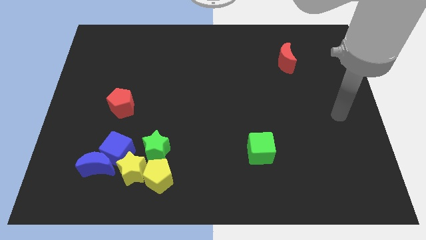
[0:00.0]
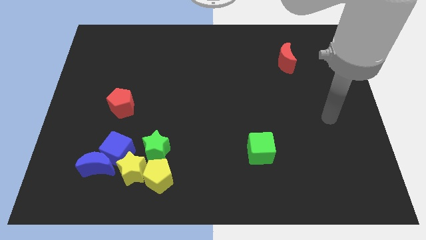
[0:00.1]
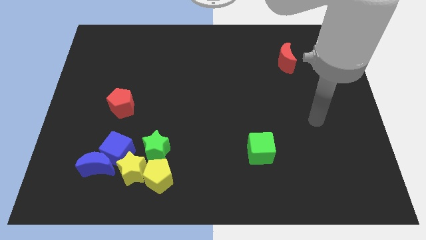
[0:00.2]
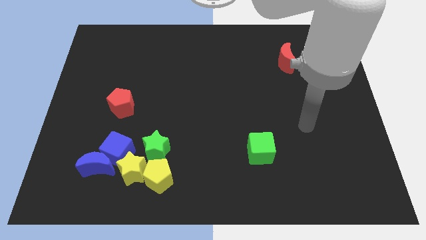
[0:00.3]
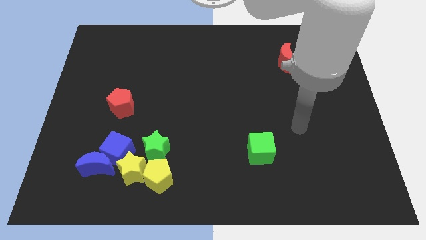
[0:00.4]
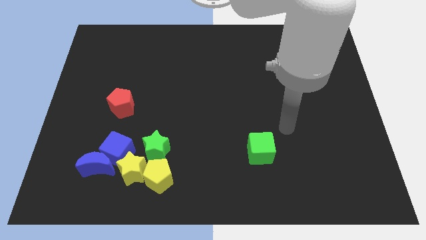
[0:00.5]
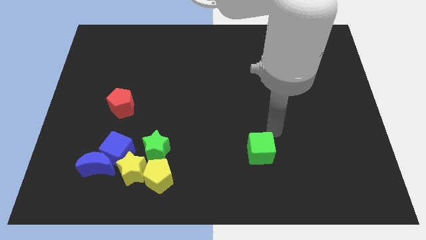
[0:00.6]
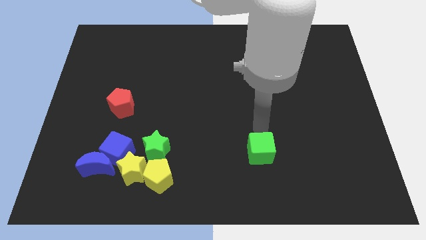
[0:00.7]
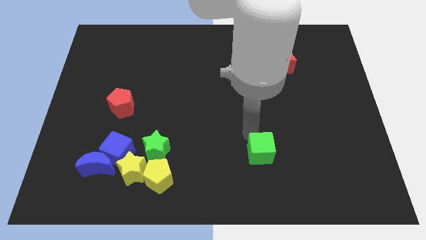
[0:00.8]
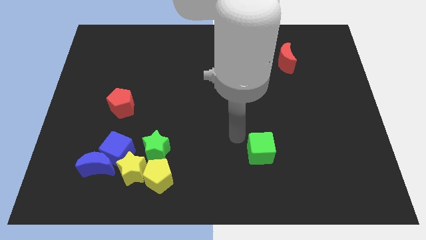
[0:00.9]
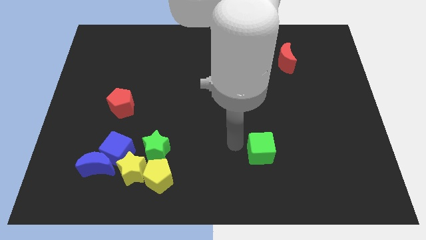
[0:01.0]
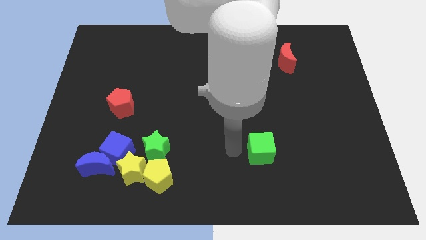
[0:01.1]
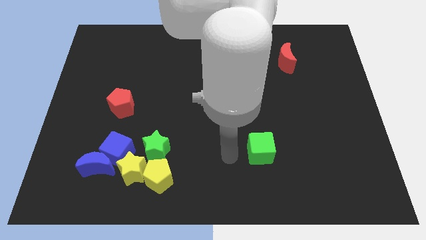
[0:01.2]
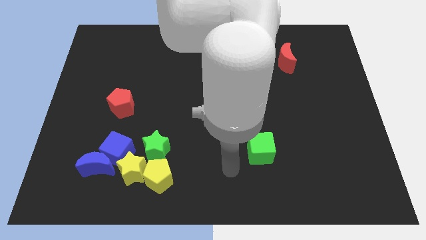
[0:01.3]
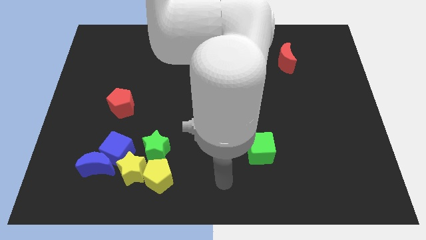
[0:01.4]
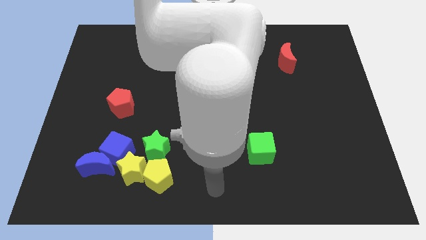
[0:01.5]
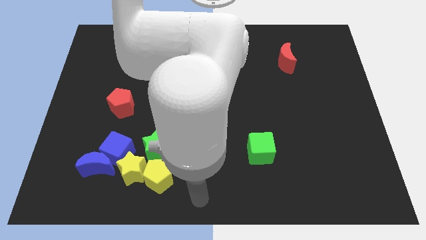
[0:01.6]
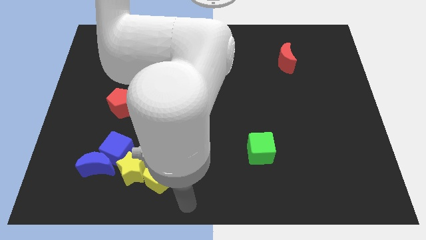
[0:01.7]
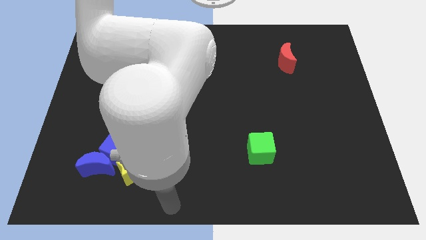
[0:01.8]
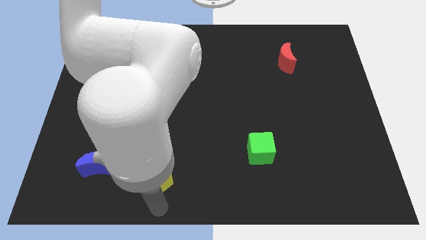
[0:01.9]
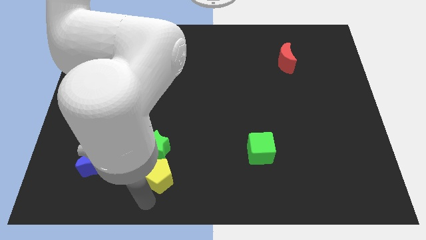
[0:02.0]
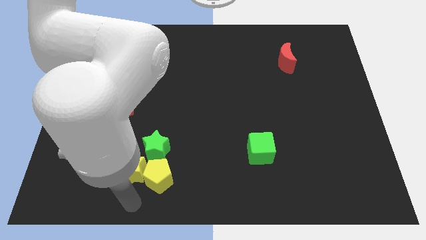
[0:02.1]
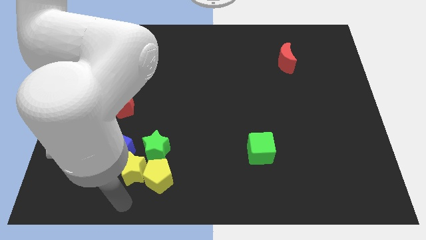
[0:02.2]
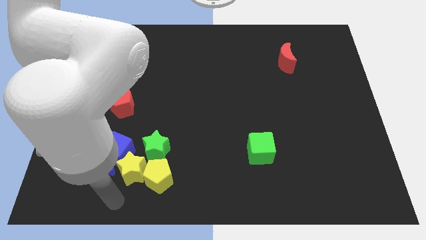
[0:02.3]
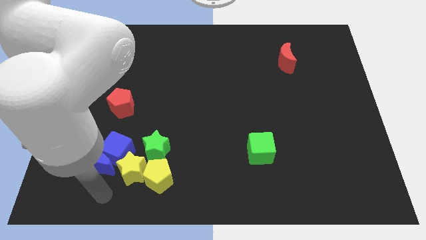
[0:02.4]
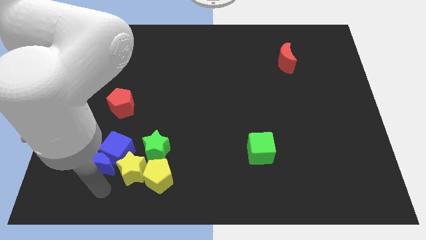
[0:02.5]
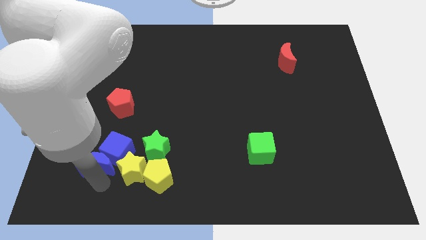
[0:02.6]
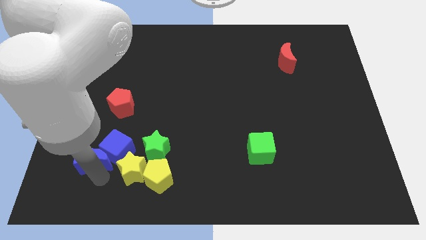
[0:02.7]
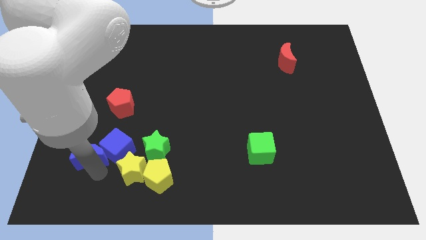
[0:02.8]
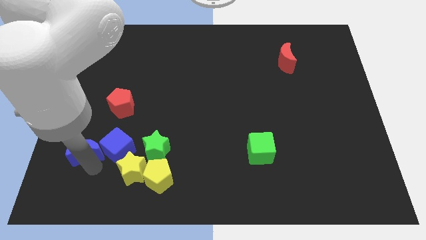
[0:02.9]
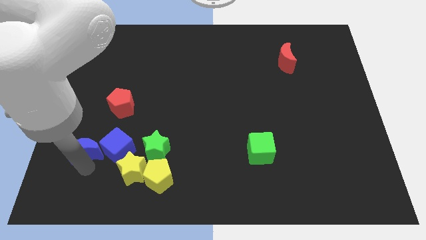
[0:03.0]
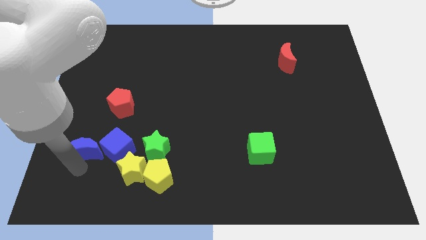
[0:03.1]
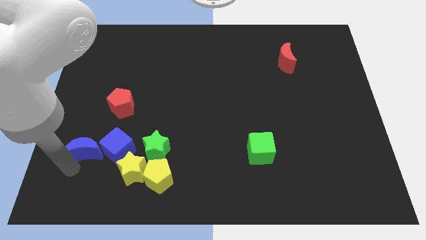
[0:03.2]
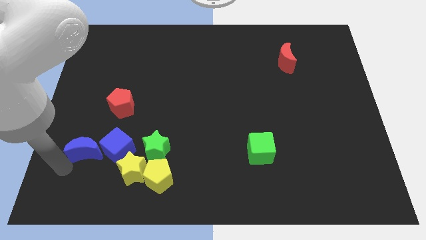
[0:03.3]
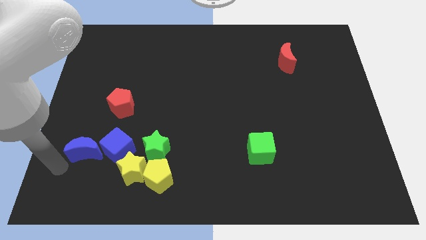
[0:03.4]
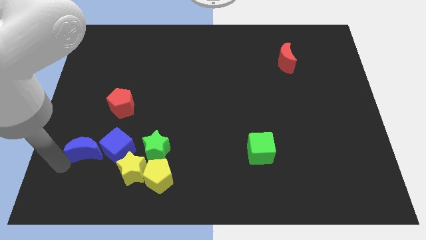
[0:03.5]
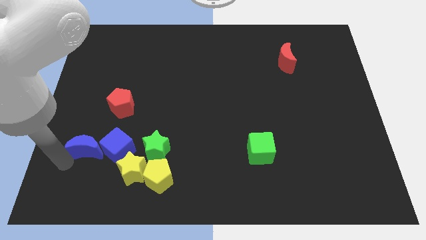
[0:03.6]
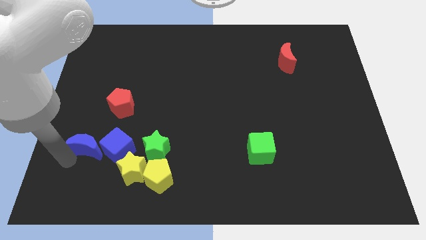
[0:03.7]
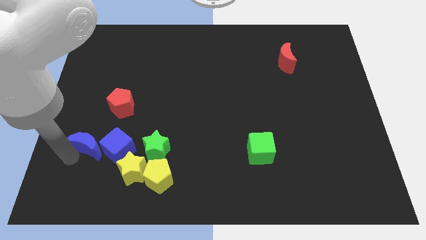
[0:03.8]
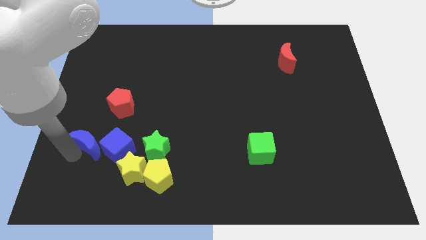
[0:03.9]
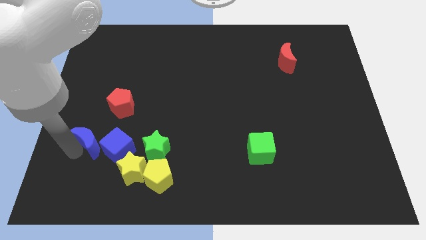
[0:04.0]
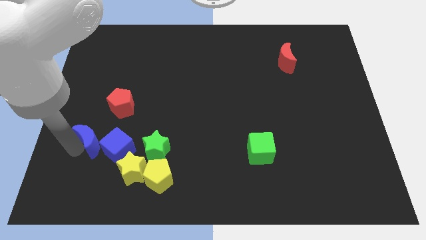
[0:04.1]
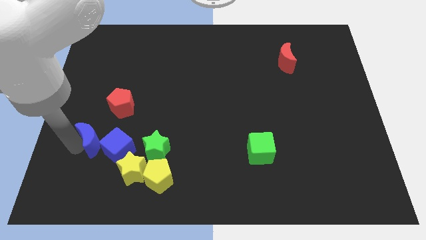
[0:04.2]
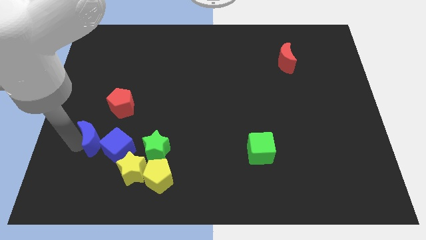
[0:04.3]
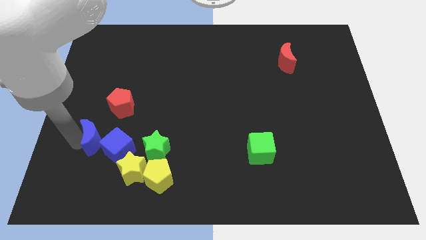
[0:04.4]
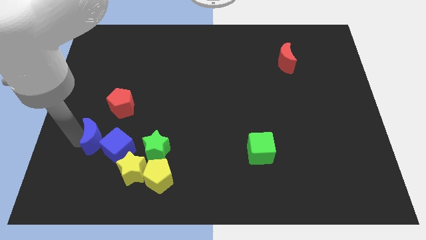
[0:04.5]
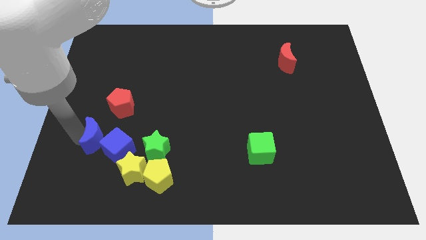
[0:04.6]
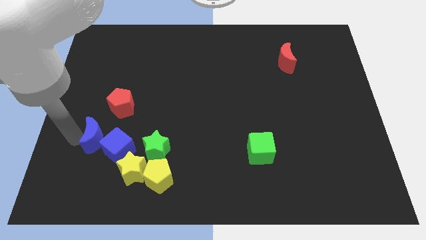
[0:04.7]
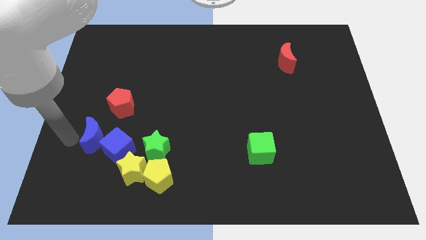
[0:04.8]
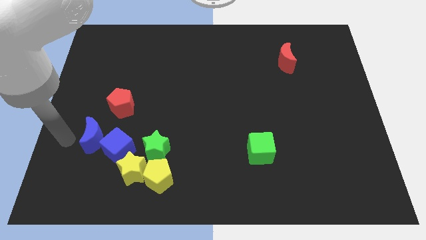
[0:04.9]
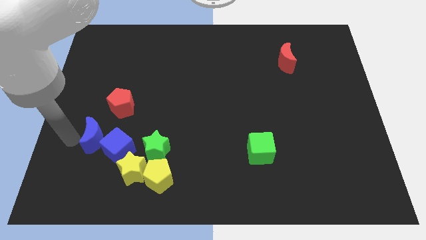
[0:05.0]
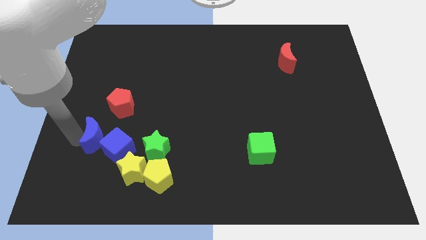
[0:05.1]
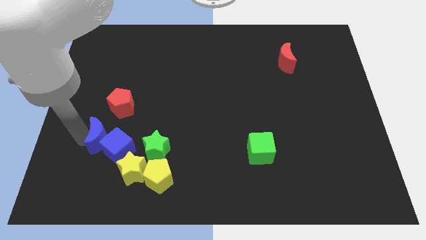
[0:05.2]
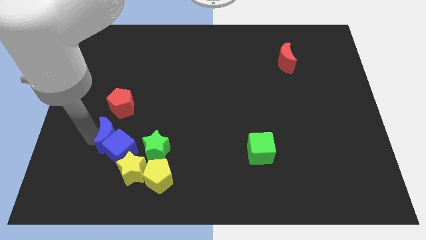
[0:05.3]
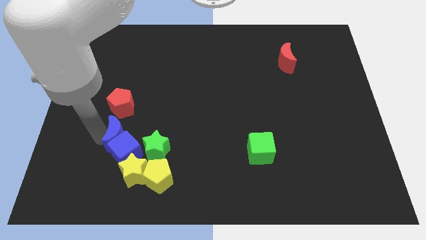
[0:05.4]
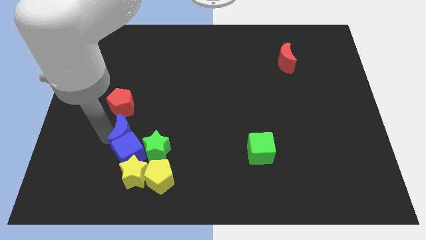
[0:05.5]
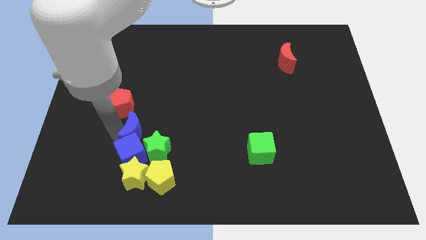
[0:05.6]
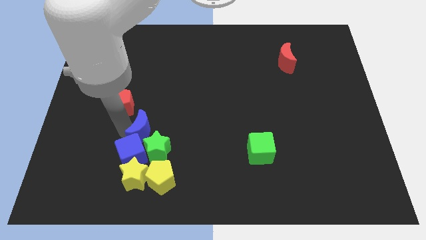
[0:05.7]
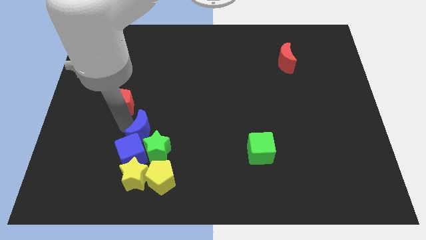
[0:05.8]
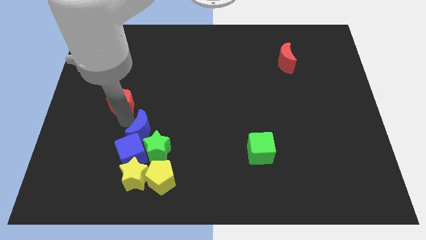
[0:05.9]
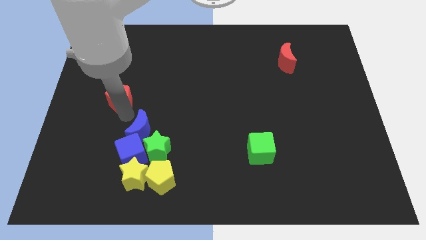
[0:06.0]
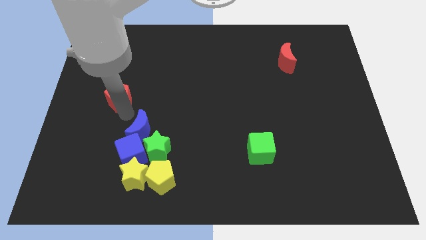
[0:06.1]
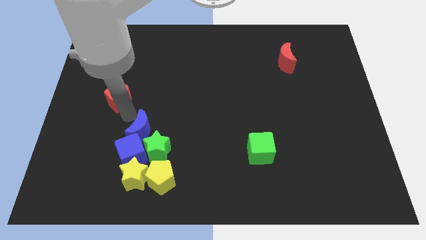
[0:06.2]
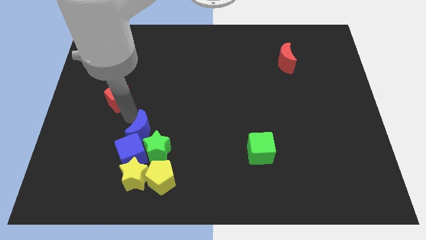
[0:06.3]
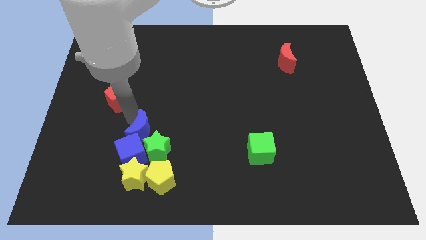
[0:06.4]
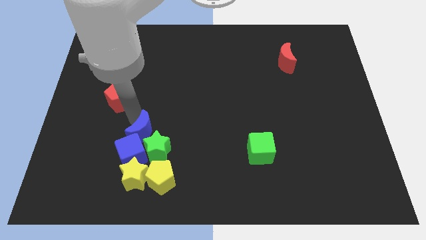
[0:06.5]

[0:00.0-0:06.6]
put the blue moon close to the green star
